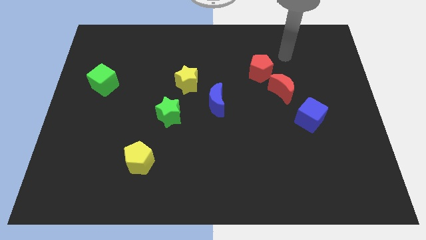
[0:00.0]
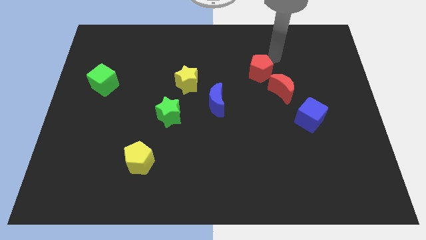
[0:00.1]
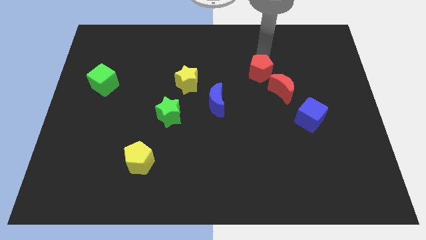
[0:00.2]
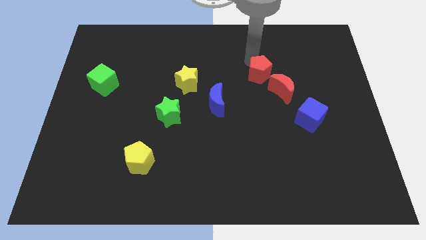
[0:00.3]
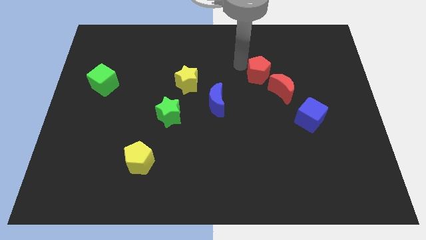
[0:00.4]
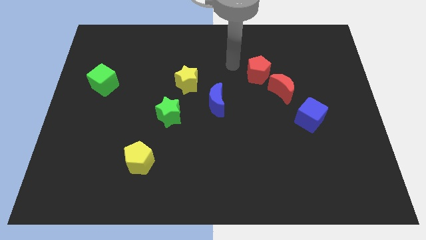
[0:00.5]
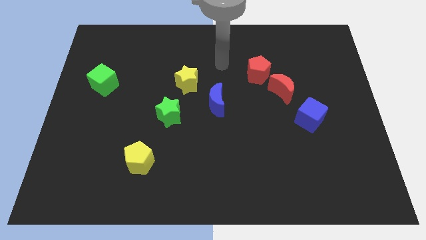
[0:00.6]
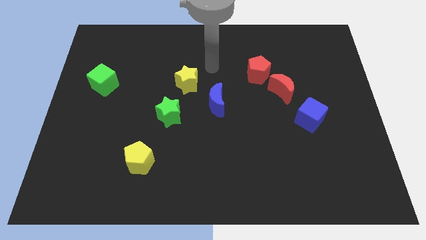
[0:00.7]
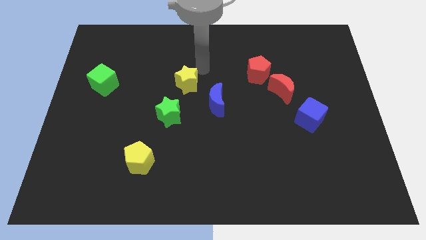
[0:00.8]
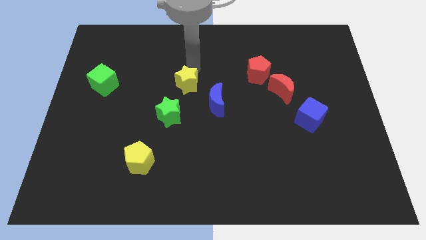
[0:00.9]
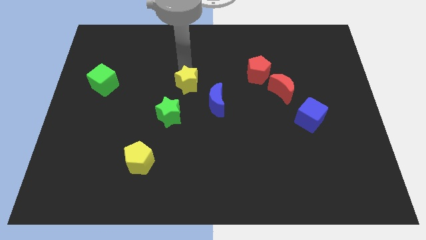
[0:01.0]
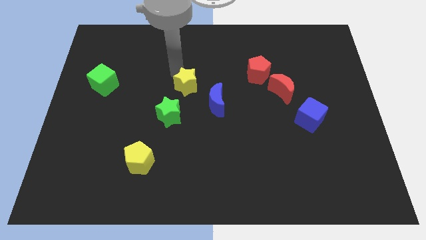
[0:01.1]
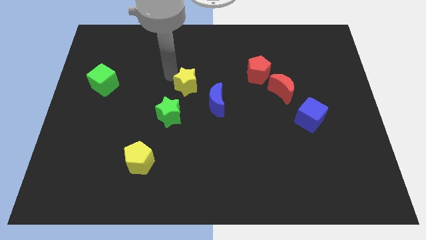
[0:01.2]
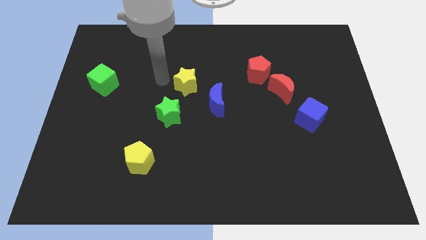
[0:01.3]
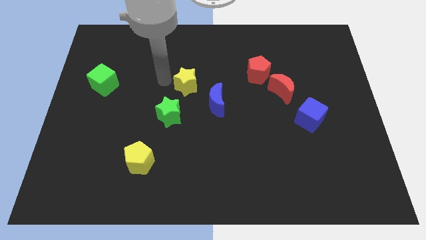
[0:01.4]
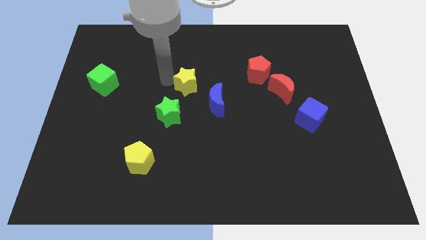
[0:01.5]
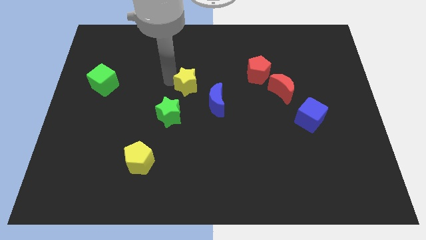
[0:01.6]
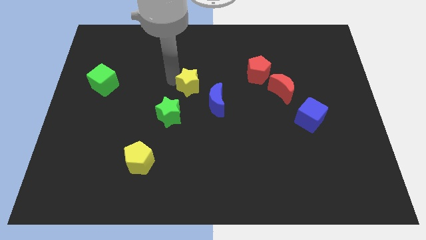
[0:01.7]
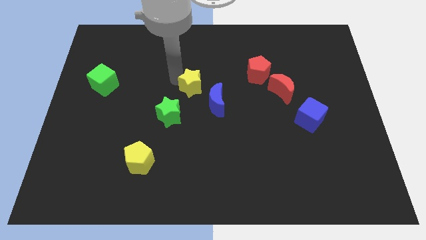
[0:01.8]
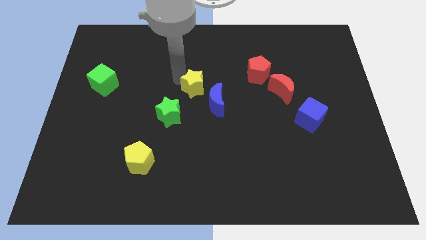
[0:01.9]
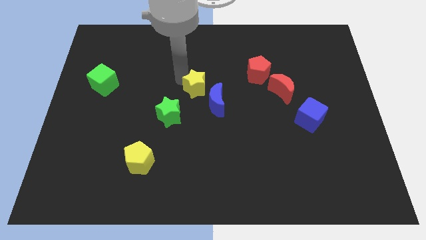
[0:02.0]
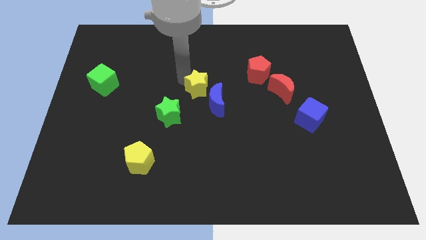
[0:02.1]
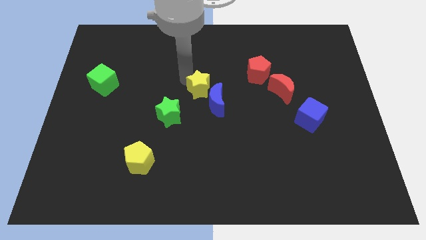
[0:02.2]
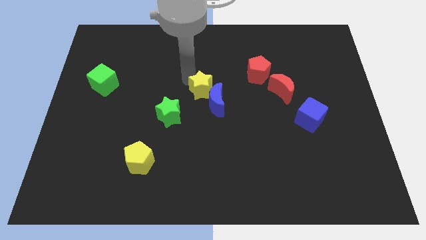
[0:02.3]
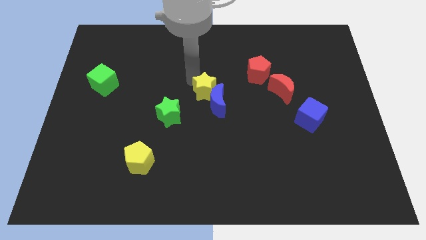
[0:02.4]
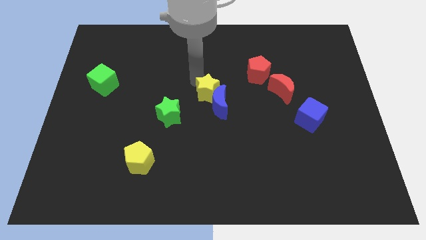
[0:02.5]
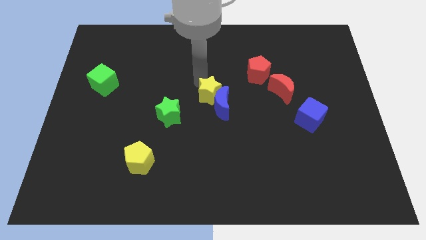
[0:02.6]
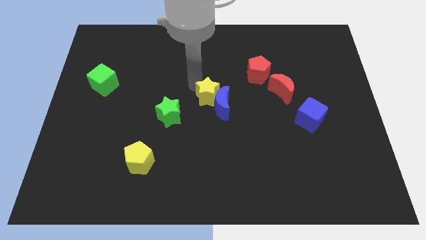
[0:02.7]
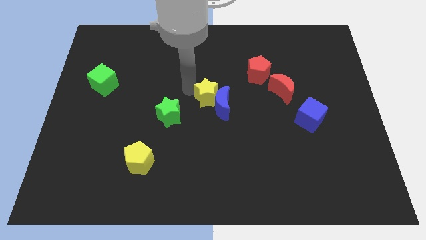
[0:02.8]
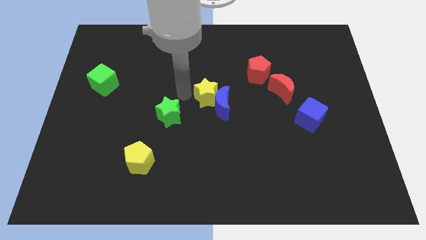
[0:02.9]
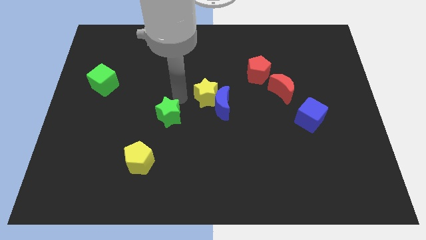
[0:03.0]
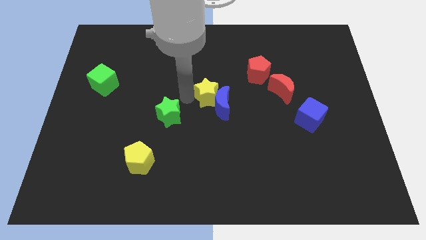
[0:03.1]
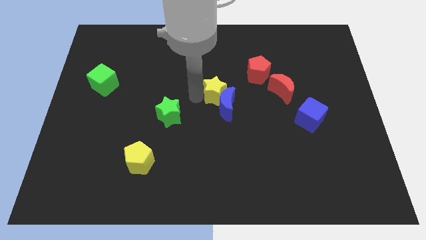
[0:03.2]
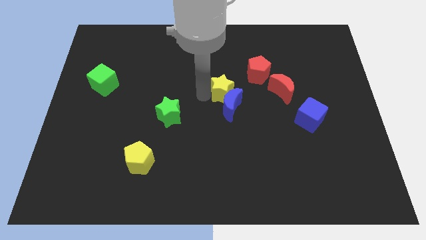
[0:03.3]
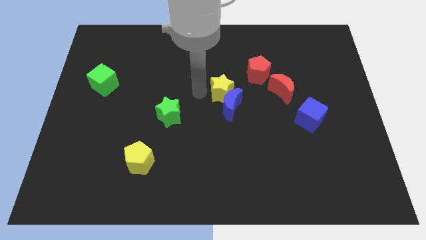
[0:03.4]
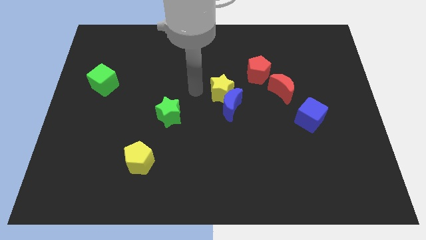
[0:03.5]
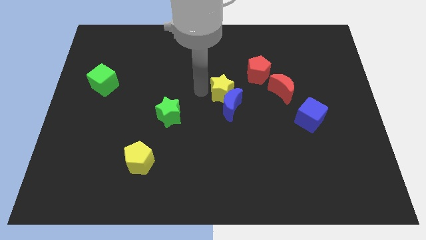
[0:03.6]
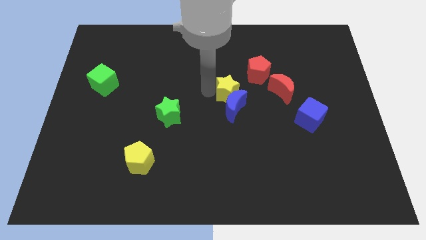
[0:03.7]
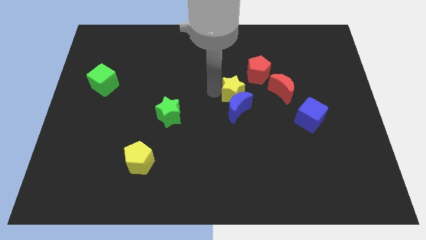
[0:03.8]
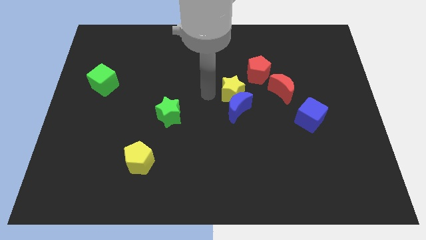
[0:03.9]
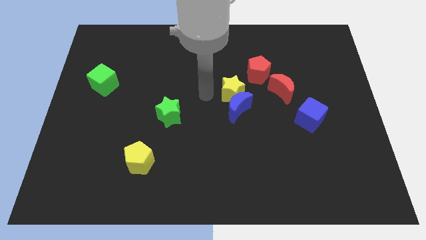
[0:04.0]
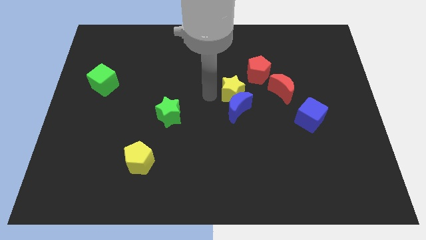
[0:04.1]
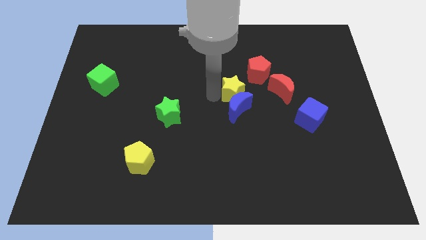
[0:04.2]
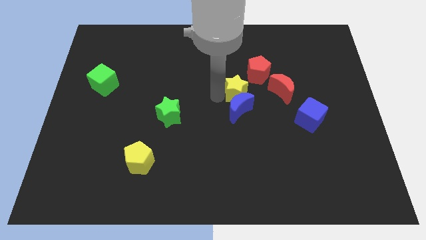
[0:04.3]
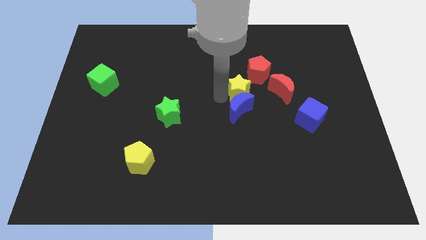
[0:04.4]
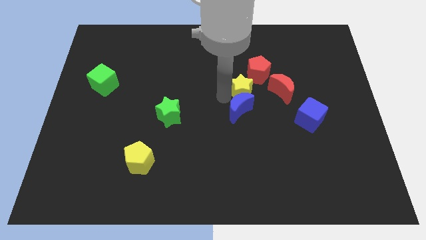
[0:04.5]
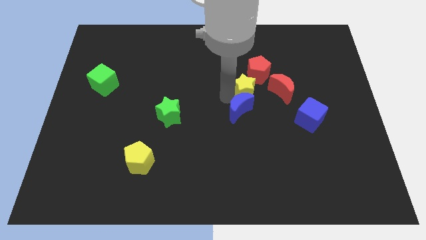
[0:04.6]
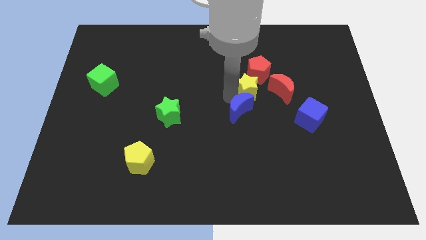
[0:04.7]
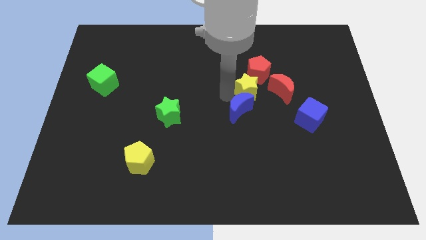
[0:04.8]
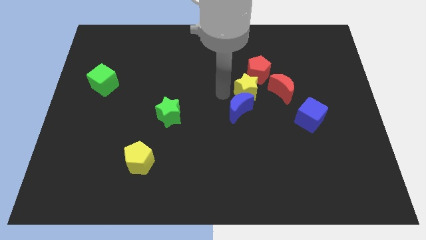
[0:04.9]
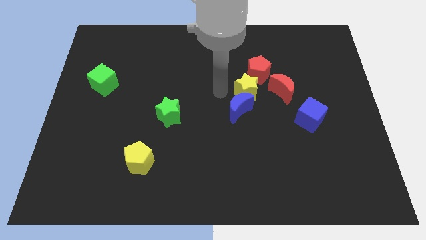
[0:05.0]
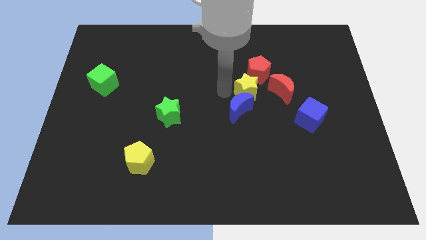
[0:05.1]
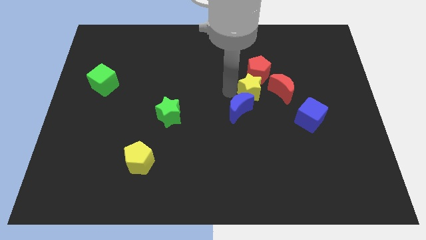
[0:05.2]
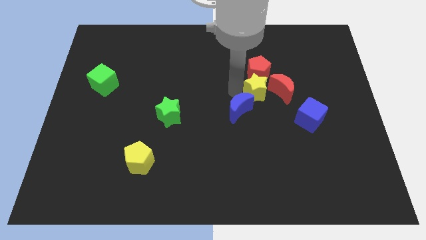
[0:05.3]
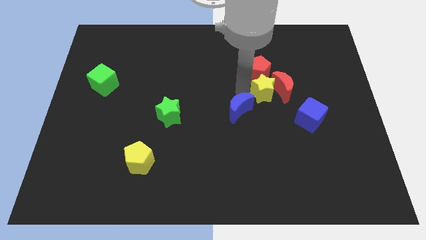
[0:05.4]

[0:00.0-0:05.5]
put the yellow star to the red moon
